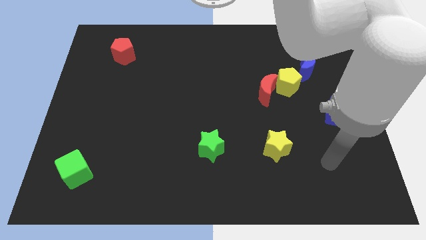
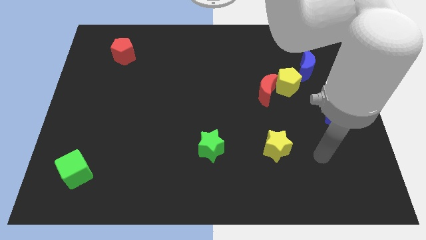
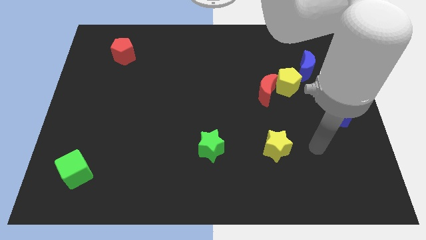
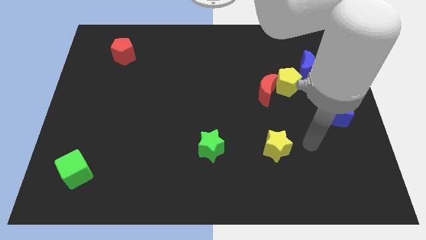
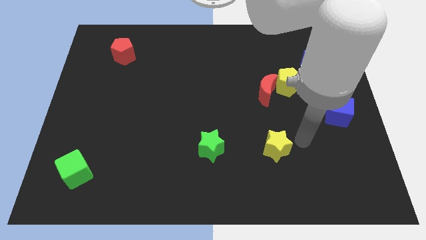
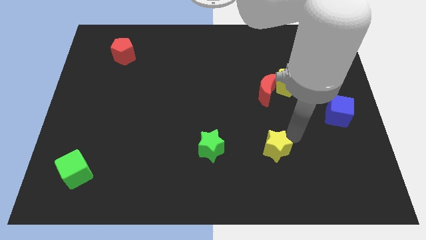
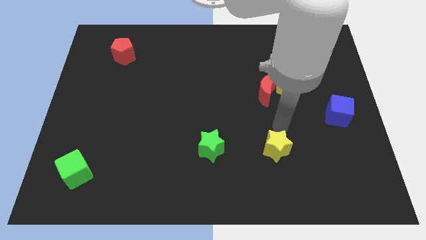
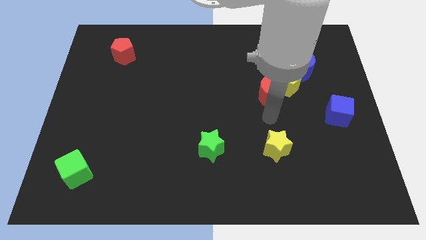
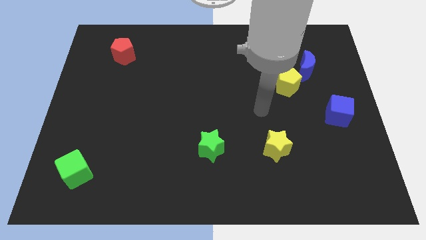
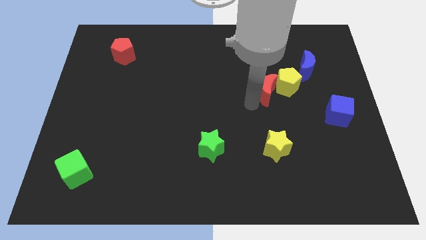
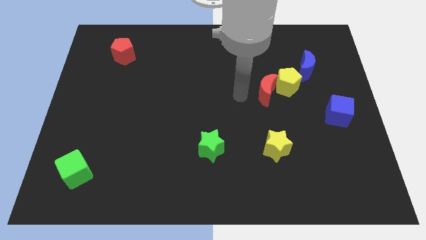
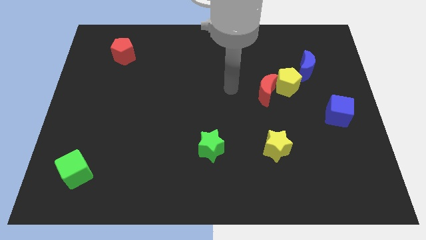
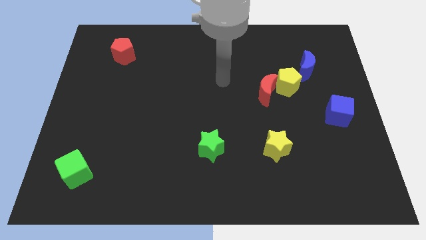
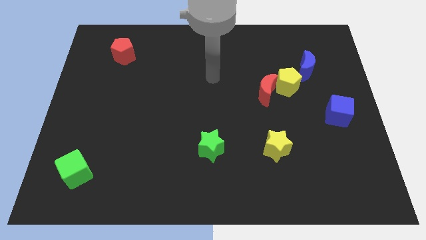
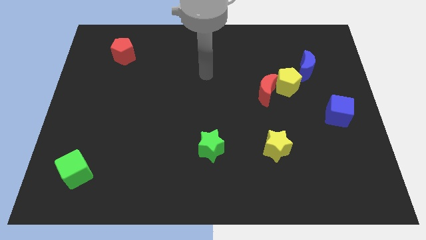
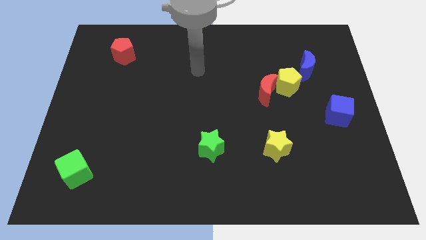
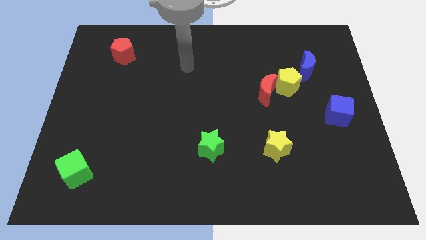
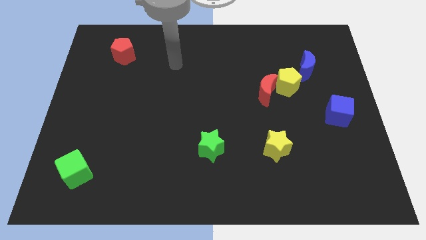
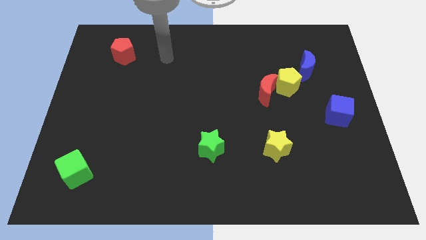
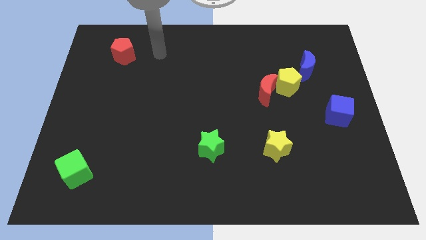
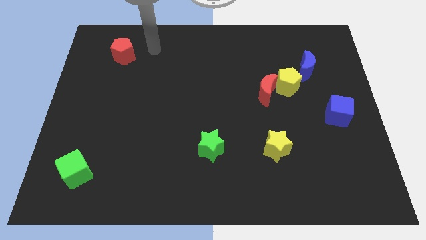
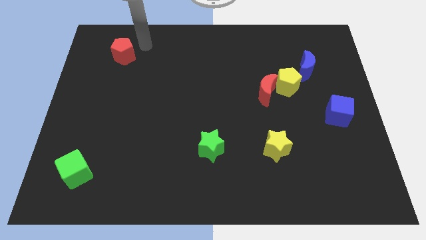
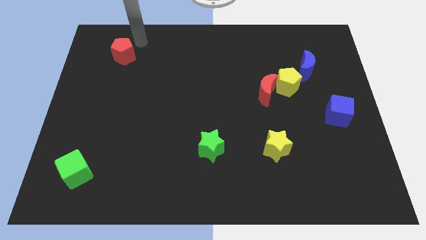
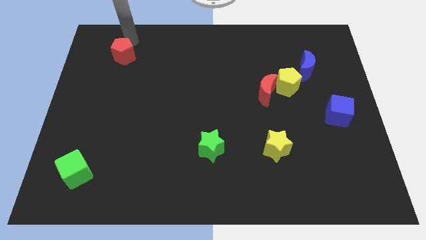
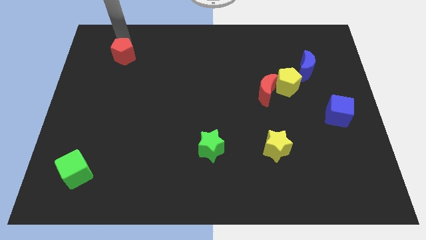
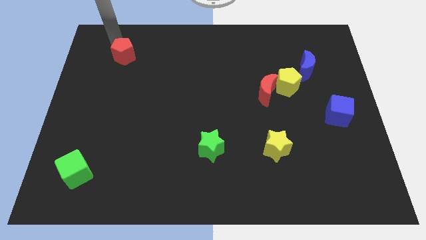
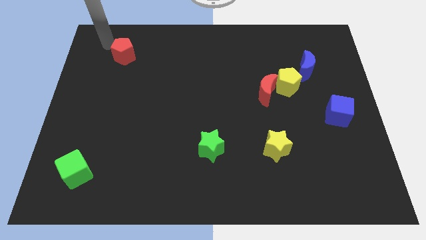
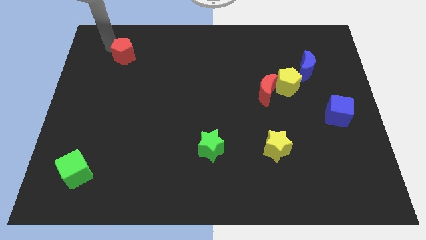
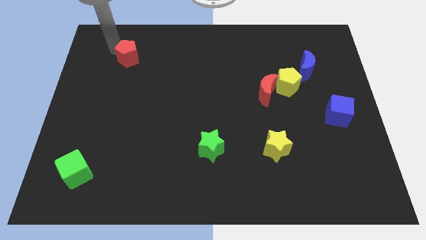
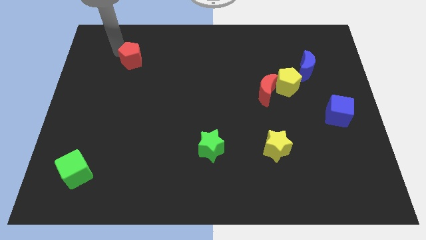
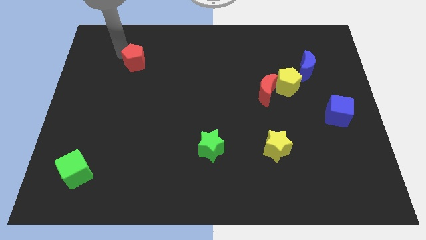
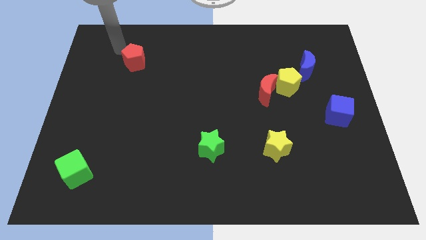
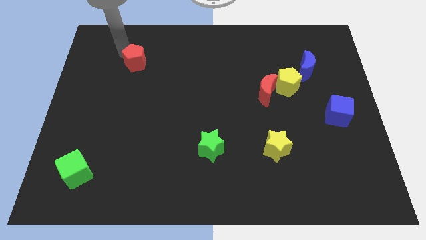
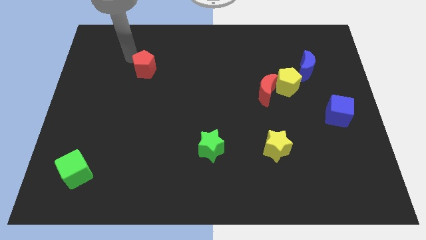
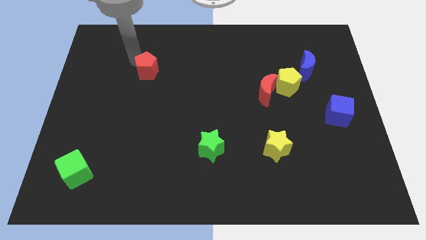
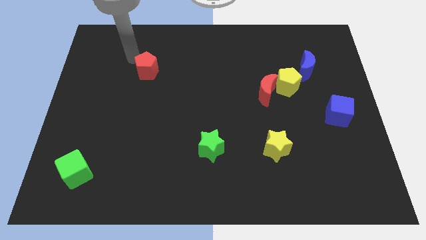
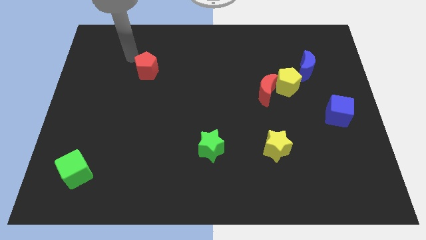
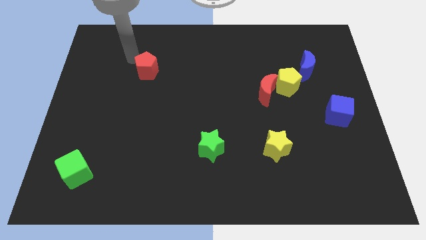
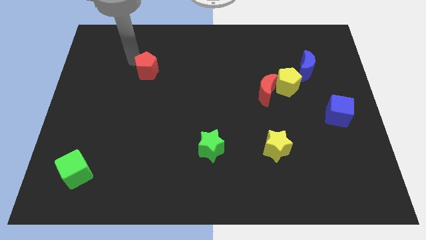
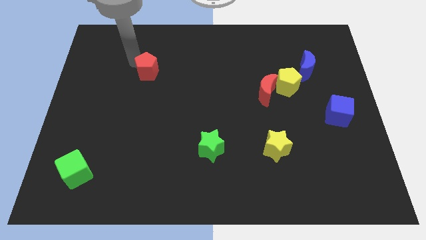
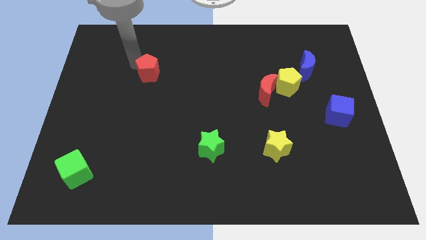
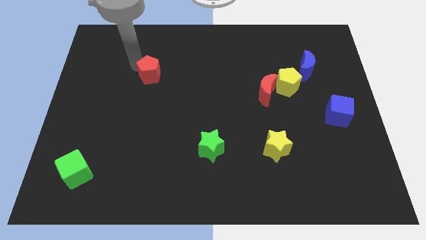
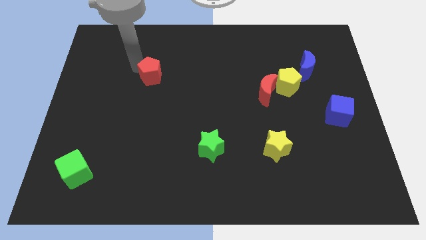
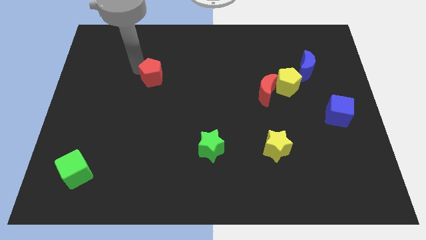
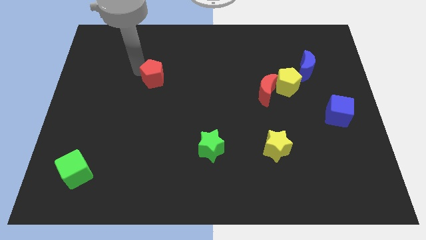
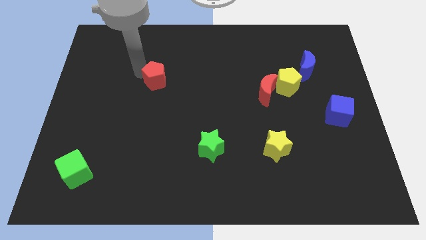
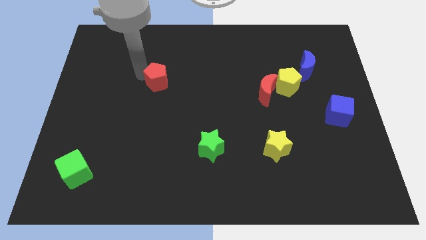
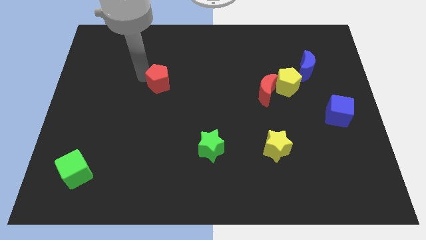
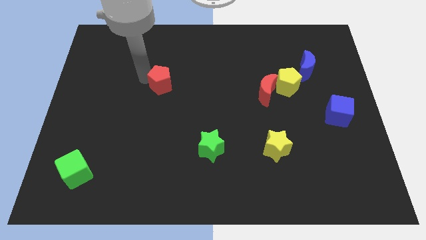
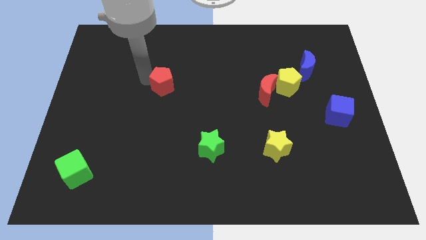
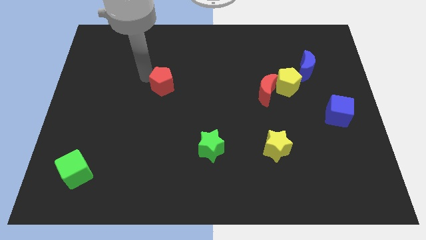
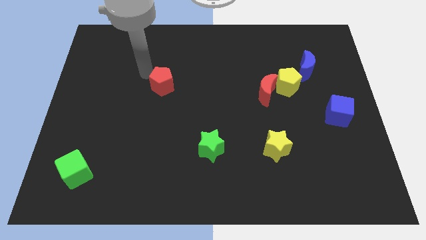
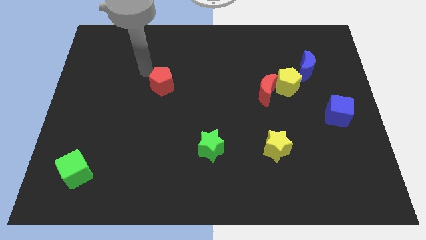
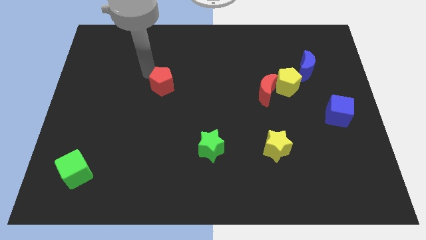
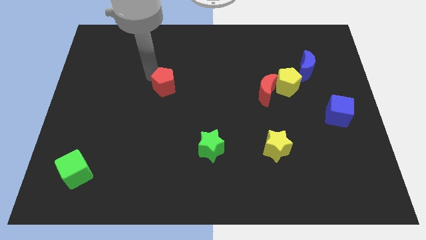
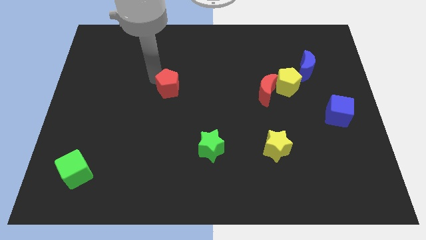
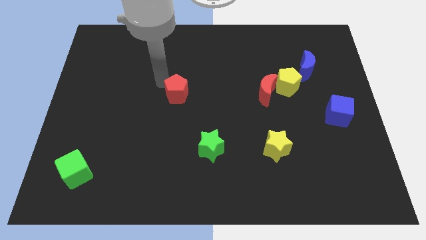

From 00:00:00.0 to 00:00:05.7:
move the red pentagon diagonally down and right

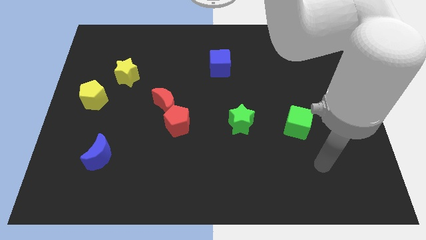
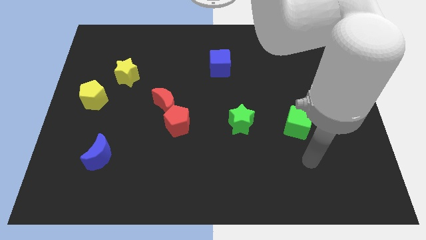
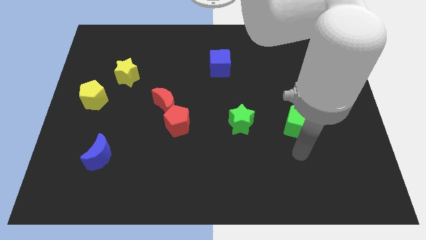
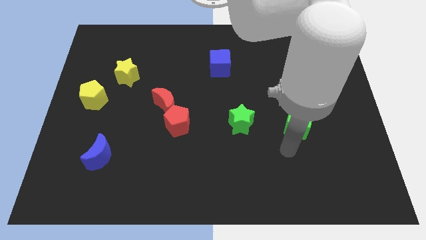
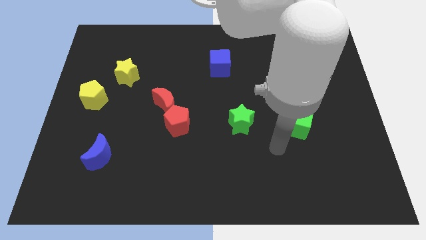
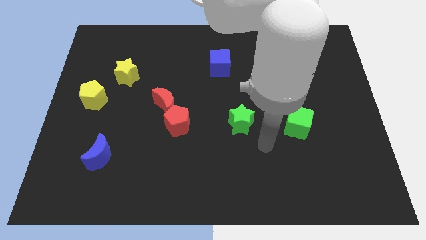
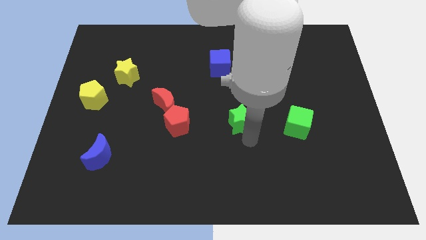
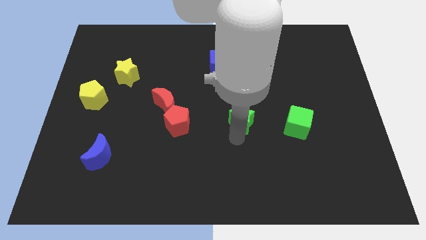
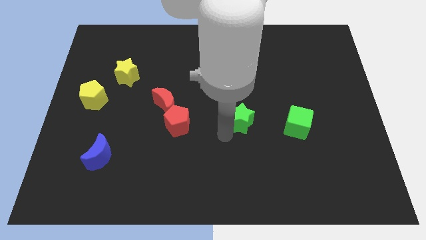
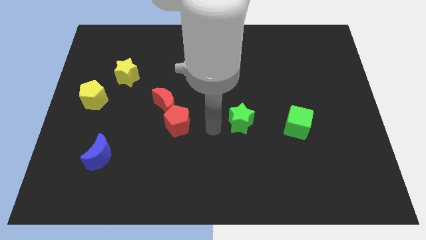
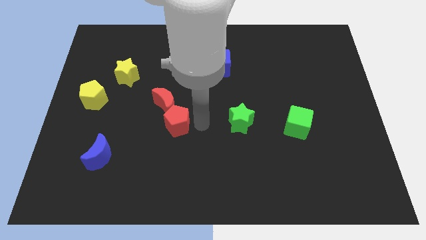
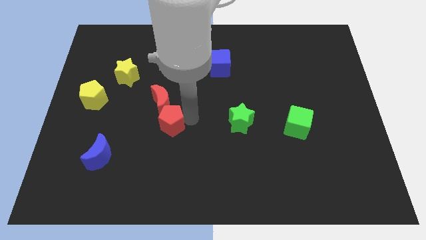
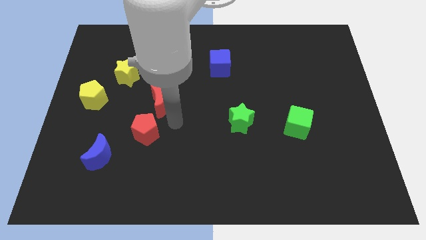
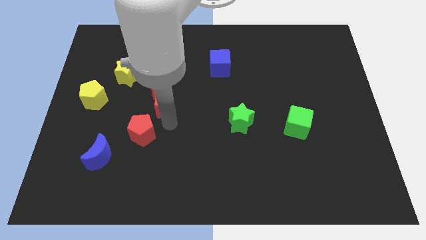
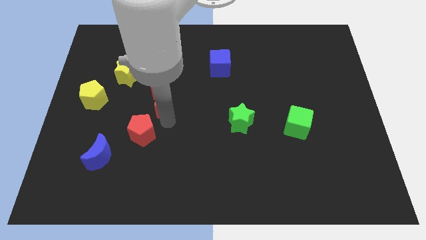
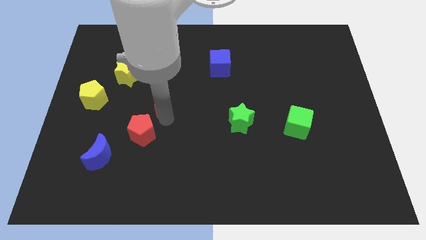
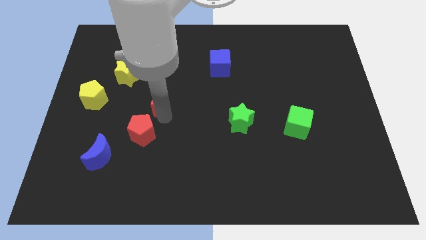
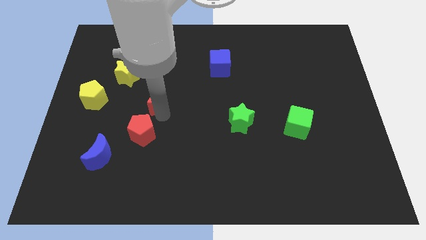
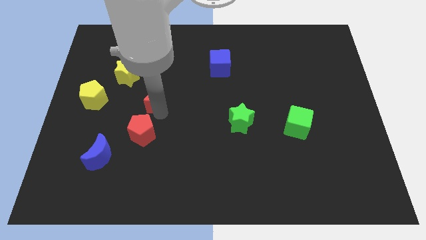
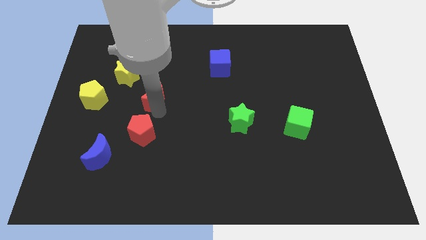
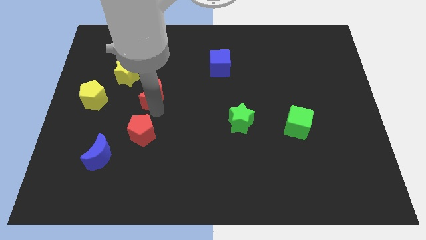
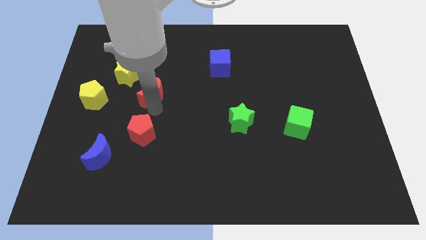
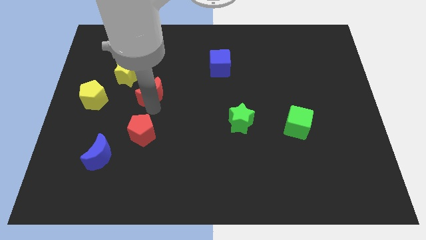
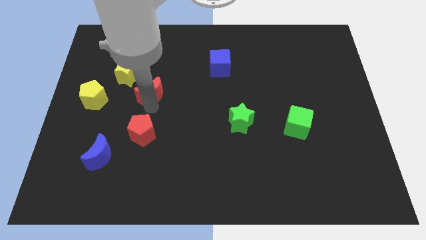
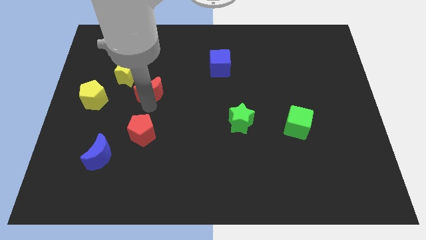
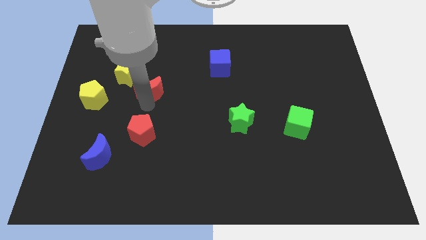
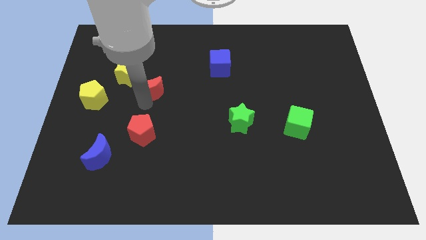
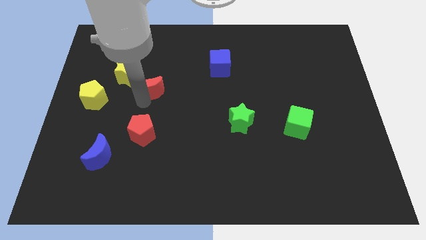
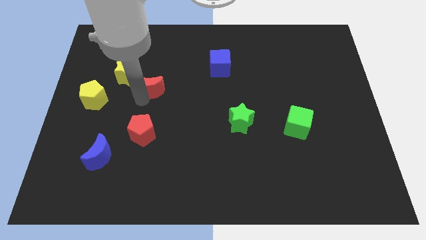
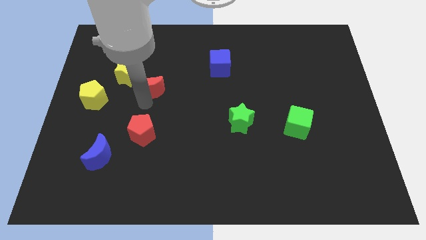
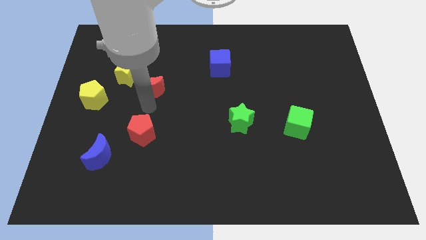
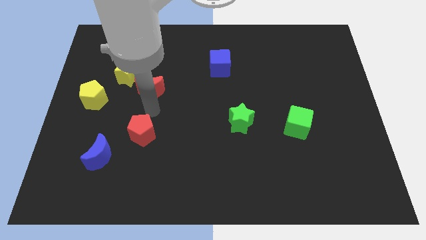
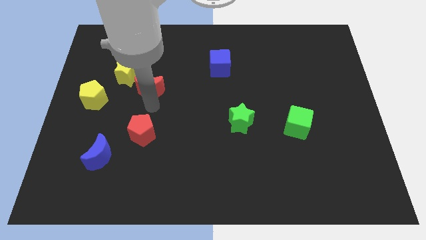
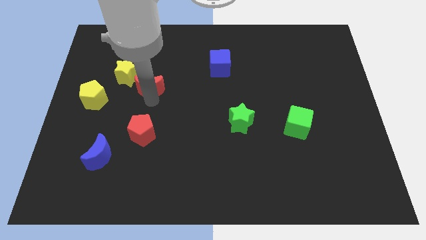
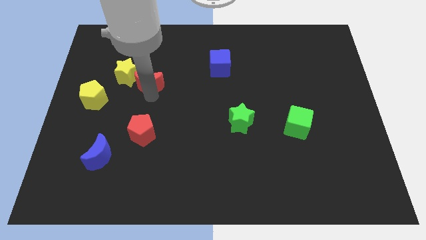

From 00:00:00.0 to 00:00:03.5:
slide the red moon upwards and left somewhat
